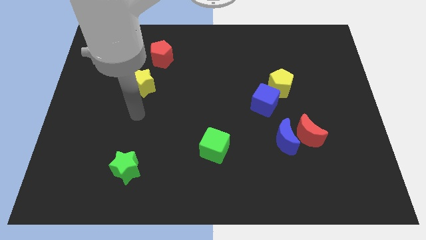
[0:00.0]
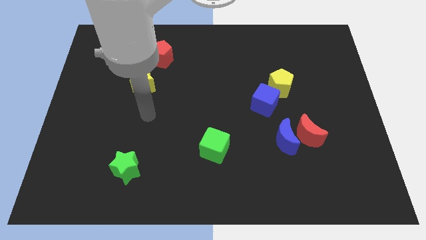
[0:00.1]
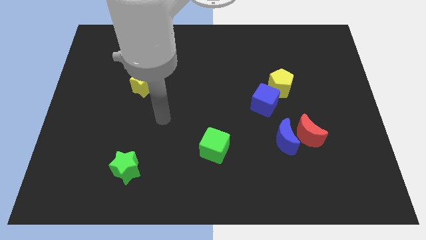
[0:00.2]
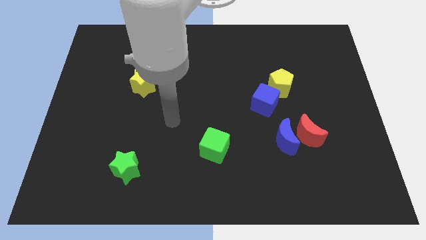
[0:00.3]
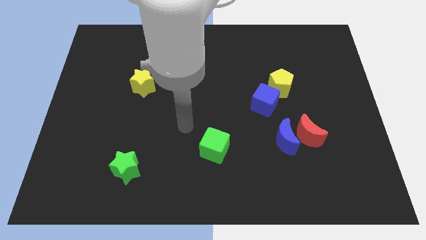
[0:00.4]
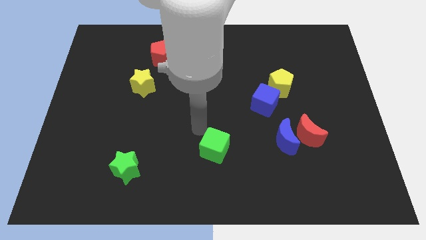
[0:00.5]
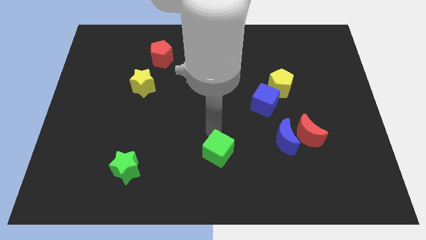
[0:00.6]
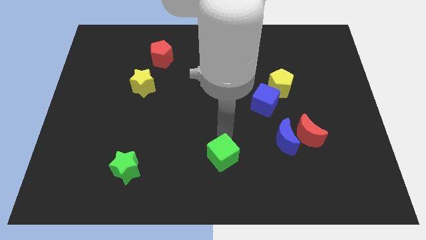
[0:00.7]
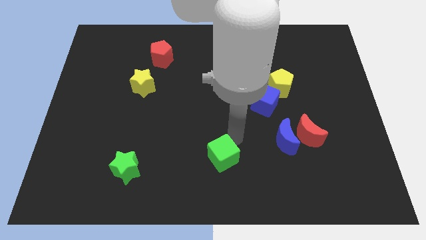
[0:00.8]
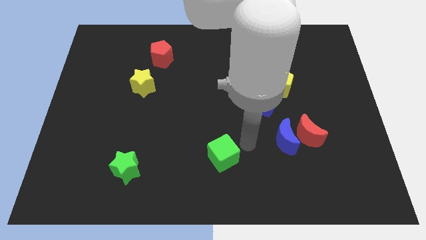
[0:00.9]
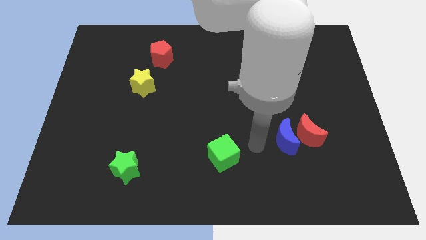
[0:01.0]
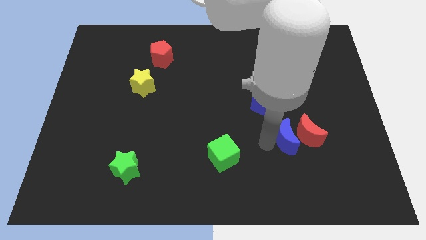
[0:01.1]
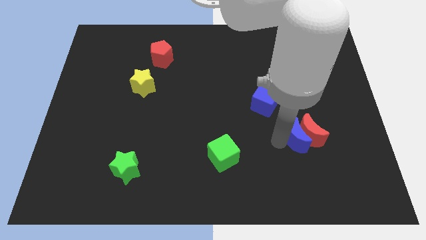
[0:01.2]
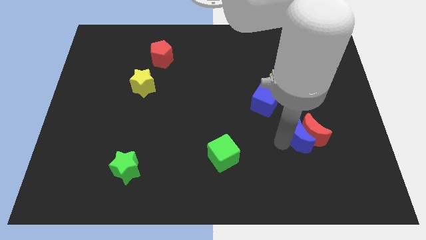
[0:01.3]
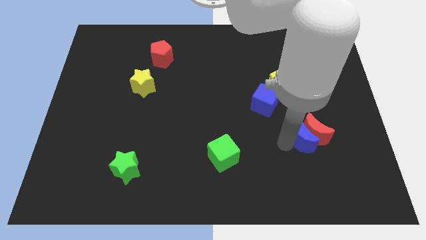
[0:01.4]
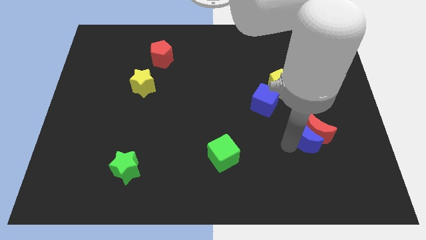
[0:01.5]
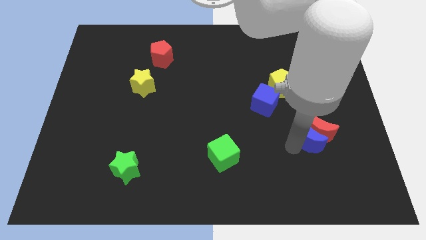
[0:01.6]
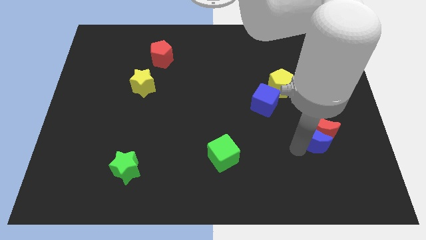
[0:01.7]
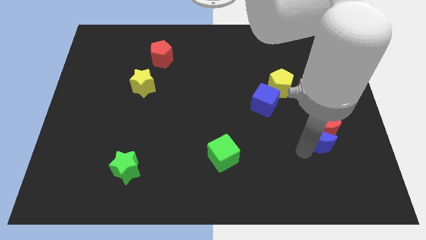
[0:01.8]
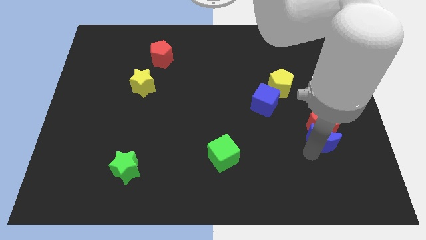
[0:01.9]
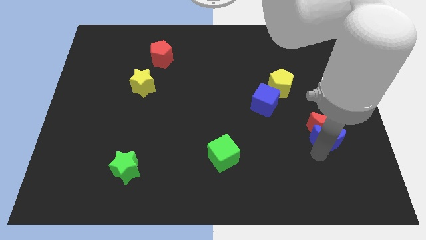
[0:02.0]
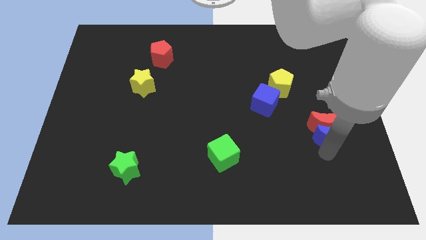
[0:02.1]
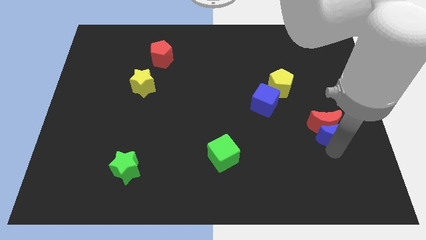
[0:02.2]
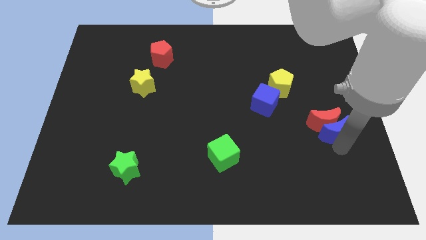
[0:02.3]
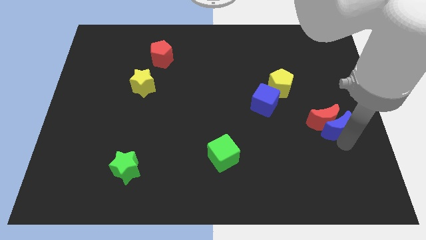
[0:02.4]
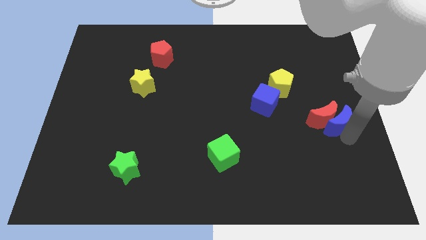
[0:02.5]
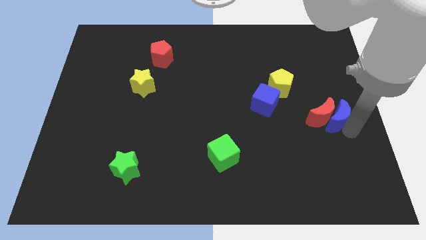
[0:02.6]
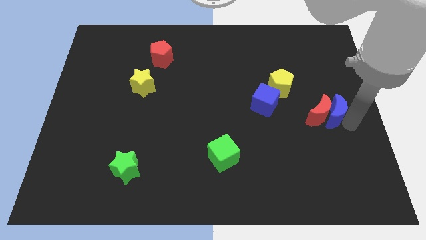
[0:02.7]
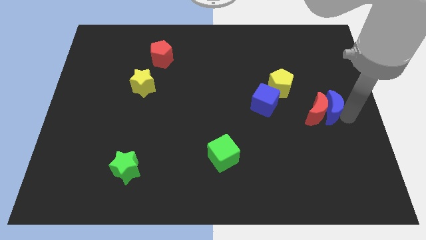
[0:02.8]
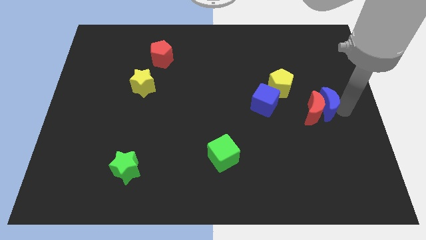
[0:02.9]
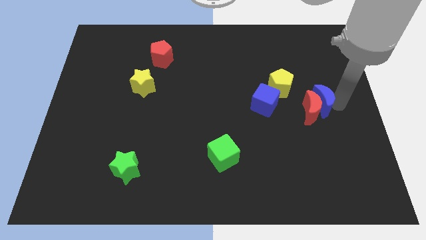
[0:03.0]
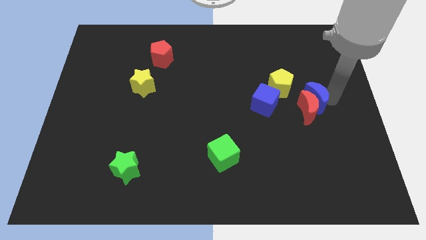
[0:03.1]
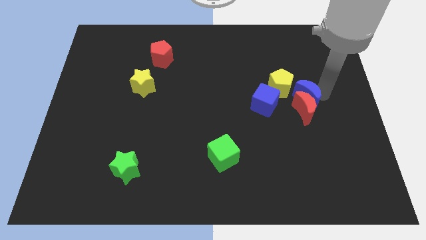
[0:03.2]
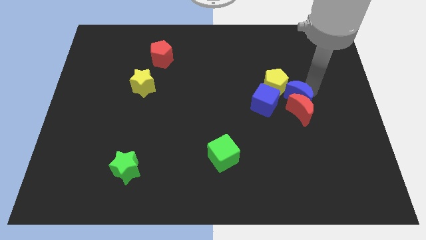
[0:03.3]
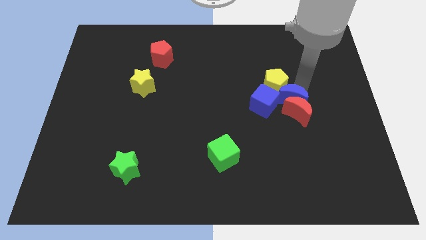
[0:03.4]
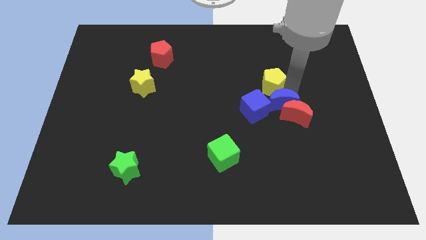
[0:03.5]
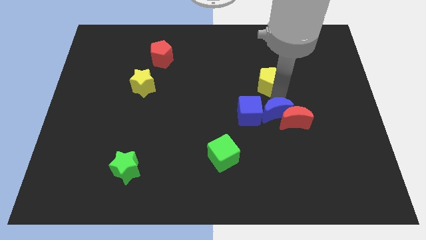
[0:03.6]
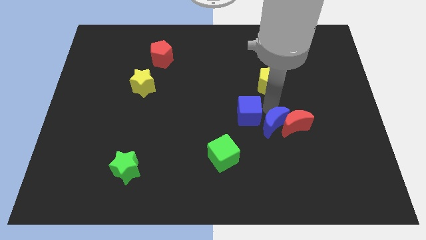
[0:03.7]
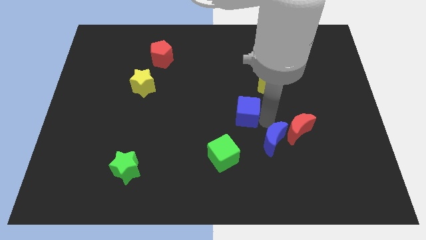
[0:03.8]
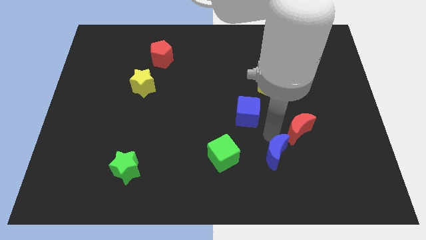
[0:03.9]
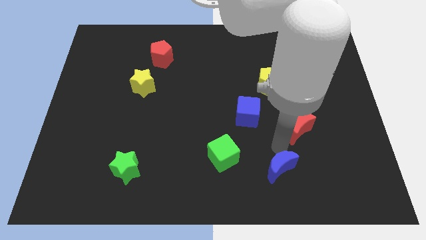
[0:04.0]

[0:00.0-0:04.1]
pull the red moon apart from the blue moon

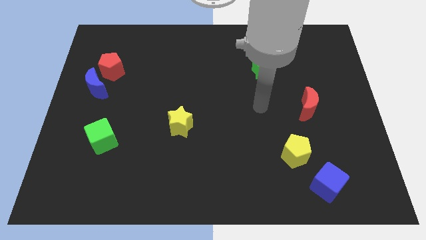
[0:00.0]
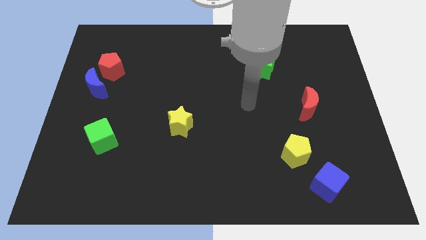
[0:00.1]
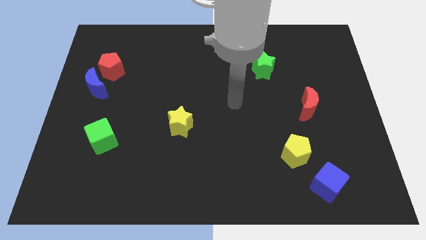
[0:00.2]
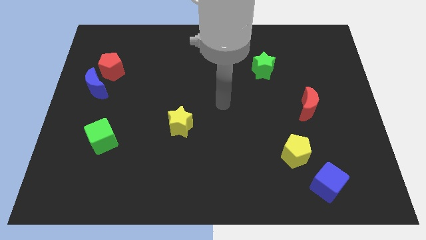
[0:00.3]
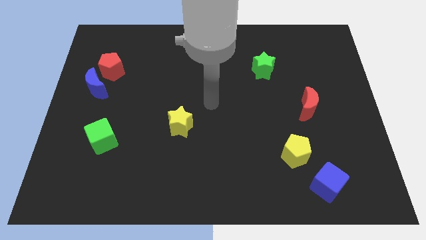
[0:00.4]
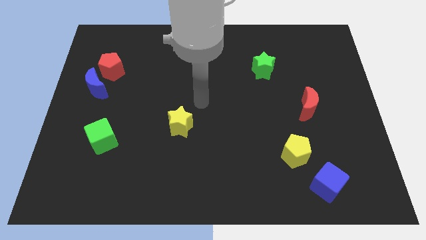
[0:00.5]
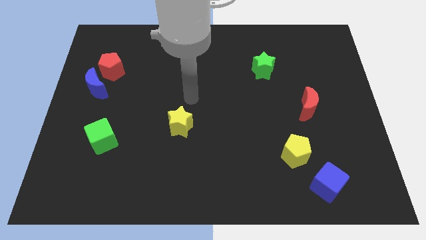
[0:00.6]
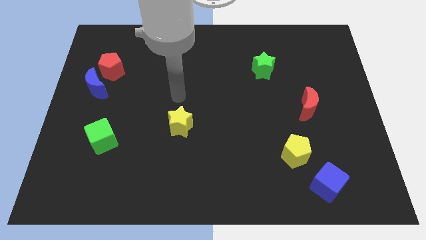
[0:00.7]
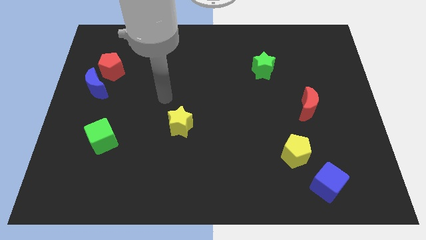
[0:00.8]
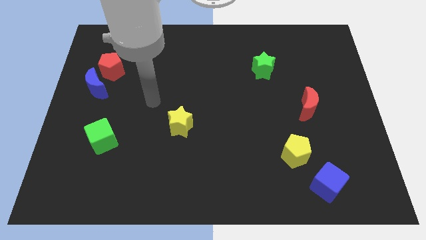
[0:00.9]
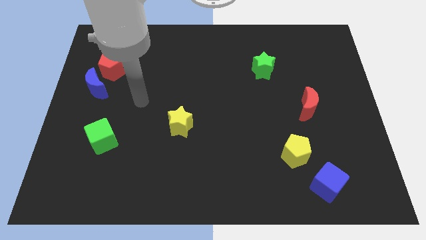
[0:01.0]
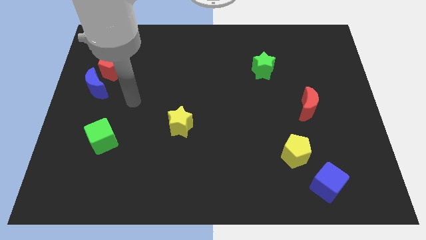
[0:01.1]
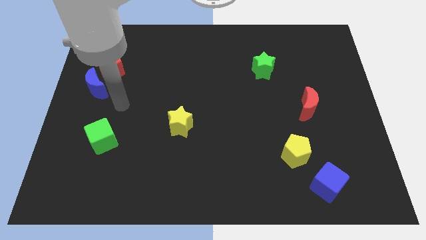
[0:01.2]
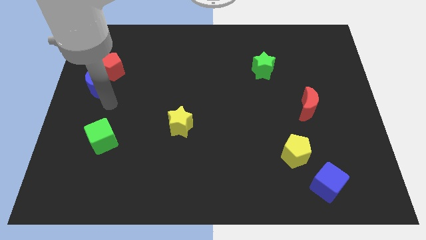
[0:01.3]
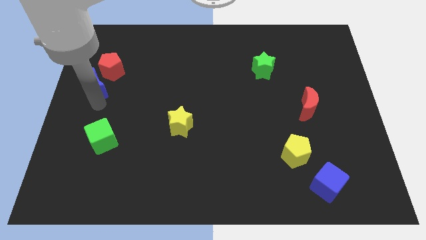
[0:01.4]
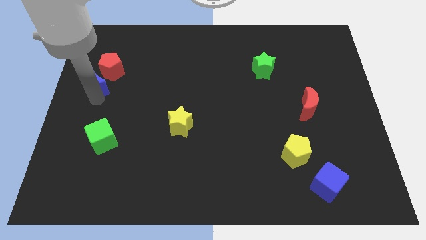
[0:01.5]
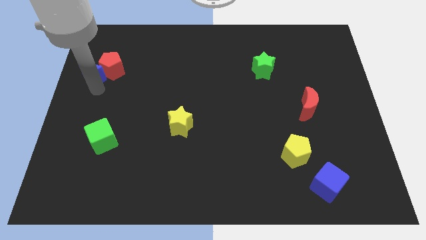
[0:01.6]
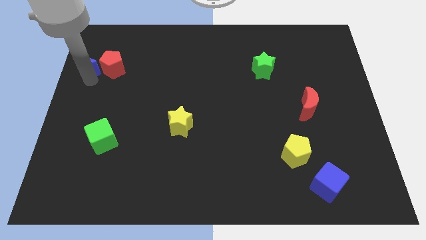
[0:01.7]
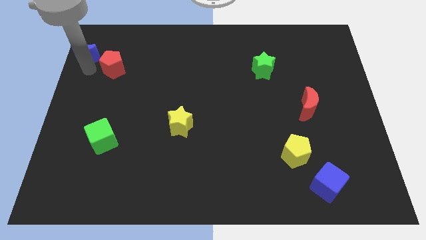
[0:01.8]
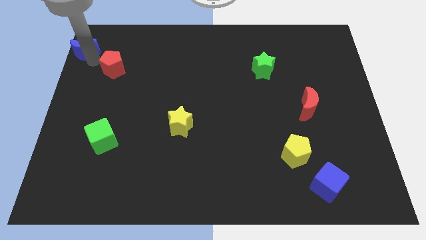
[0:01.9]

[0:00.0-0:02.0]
pull the red pentagon apart from the blue moon

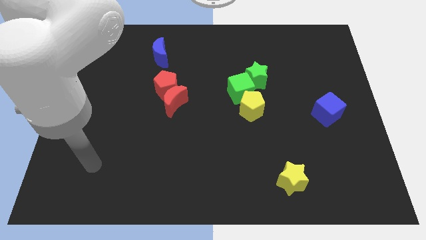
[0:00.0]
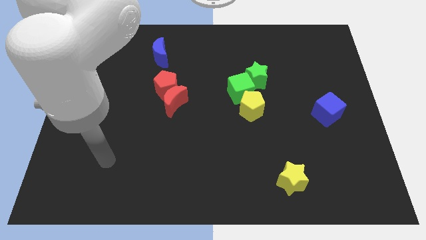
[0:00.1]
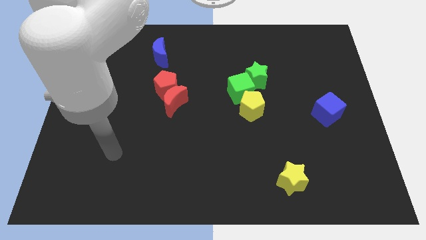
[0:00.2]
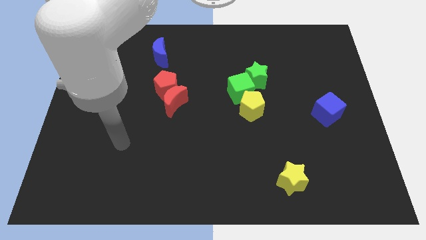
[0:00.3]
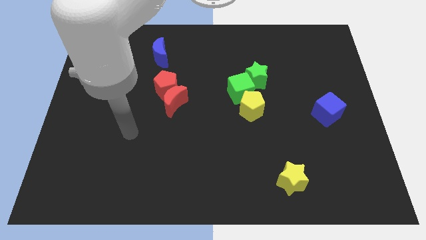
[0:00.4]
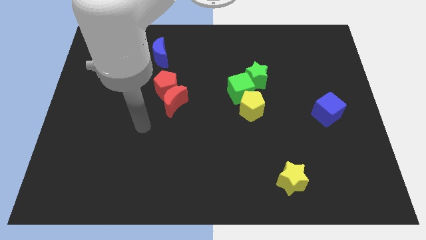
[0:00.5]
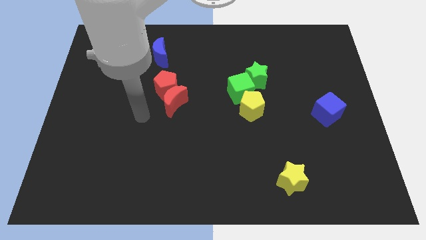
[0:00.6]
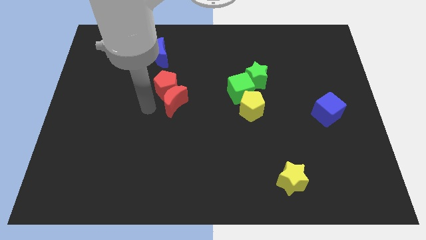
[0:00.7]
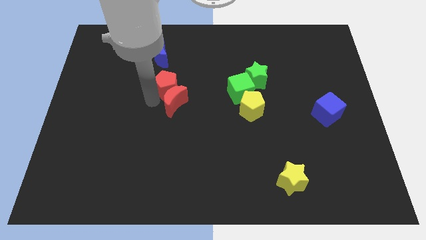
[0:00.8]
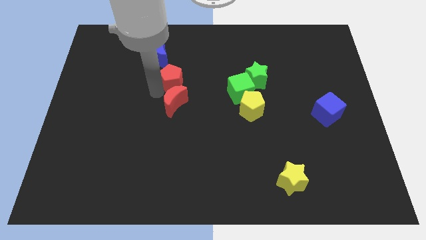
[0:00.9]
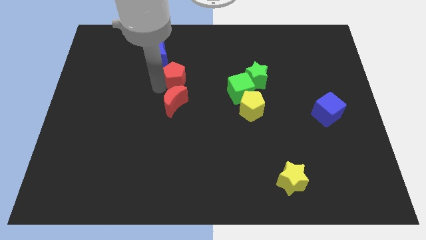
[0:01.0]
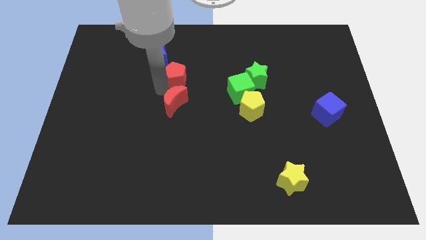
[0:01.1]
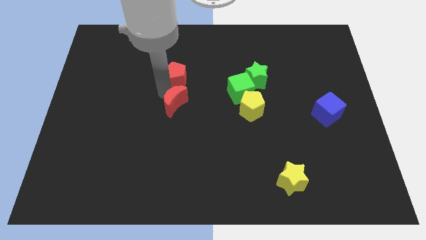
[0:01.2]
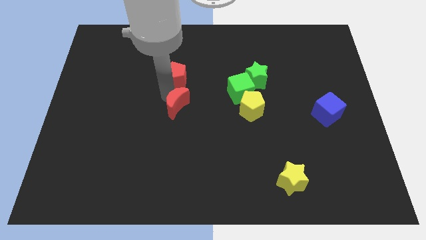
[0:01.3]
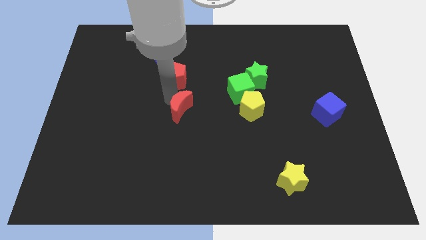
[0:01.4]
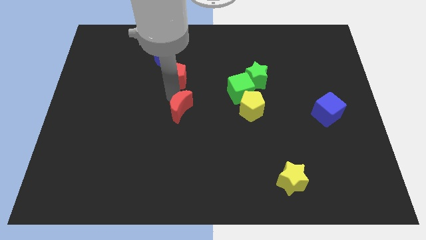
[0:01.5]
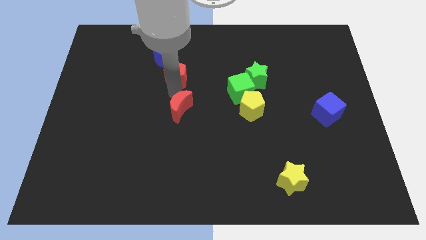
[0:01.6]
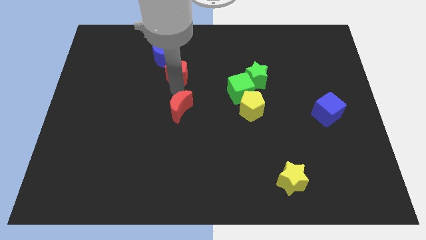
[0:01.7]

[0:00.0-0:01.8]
pull the red moon apart from the red pentagon

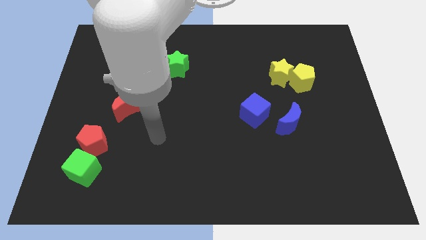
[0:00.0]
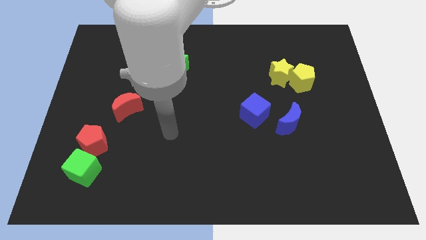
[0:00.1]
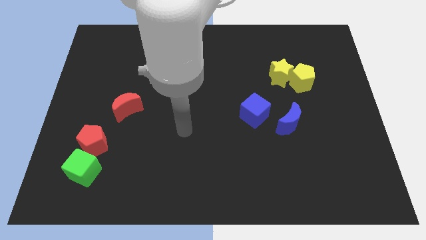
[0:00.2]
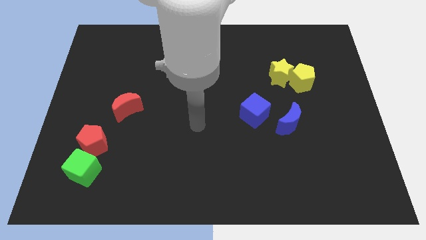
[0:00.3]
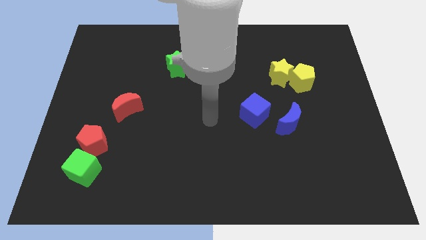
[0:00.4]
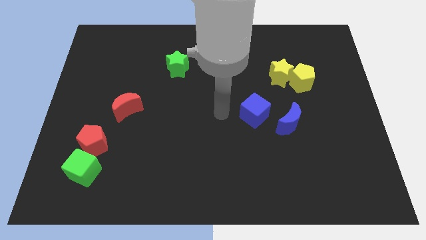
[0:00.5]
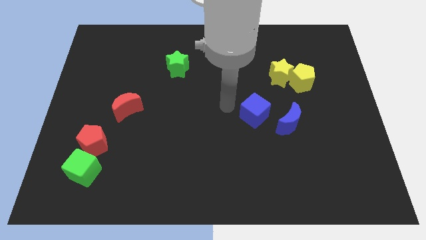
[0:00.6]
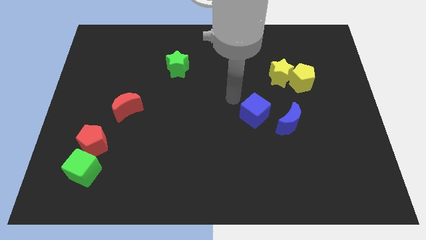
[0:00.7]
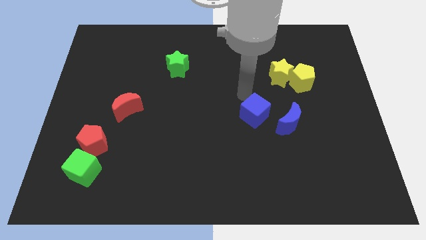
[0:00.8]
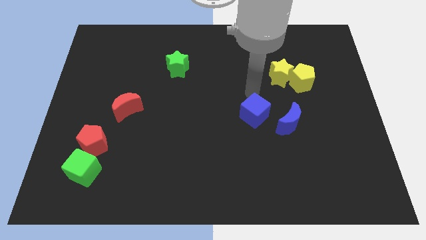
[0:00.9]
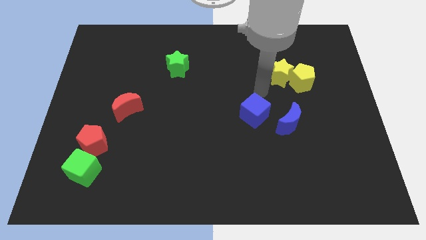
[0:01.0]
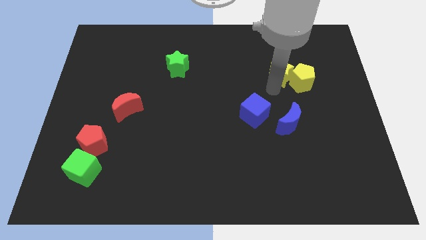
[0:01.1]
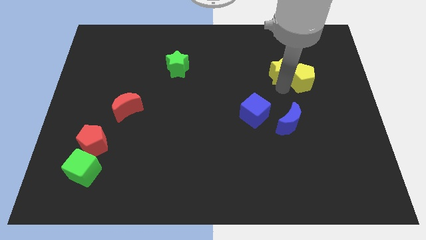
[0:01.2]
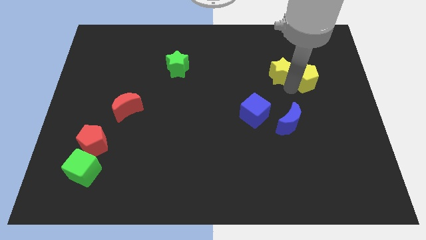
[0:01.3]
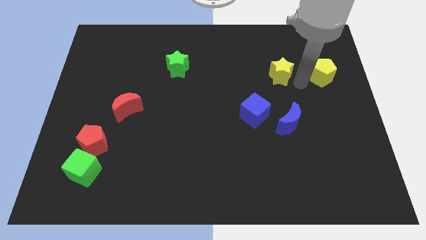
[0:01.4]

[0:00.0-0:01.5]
pull the yellow star apart from the yellow pentagon

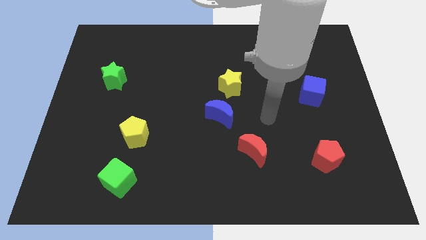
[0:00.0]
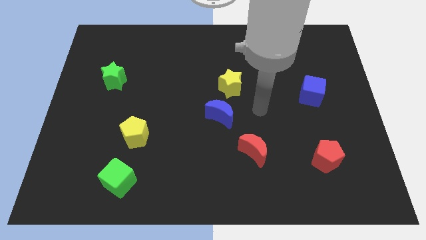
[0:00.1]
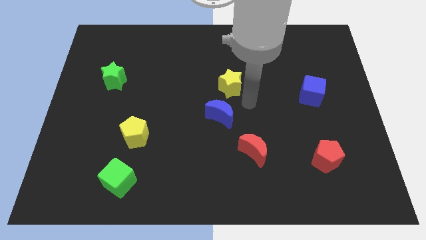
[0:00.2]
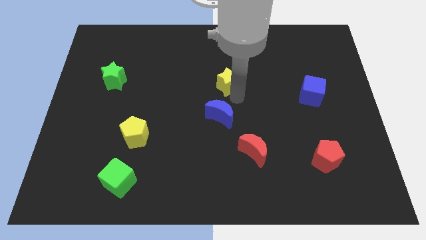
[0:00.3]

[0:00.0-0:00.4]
pull the blue moon apart from the yellow star
